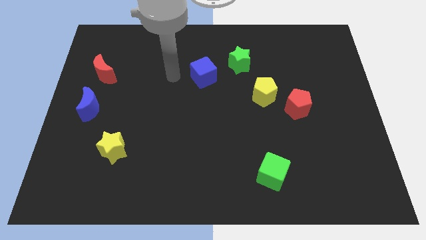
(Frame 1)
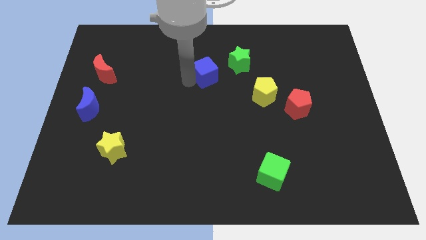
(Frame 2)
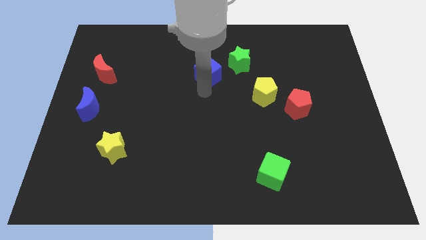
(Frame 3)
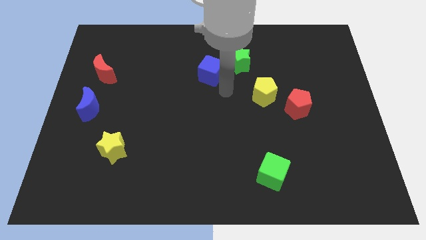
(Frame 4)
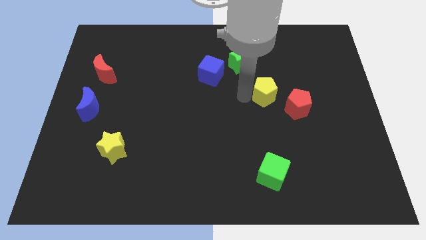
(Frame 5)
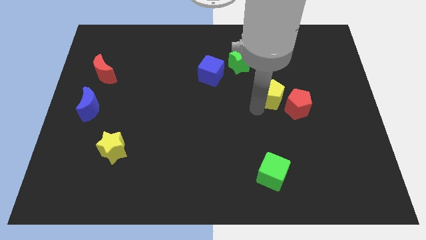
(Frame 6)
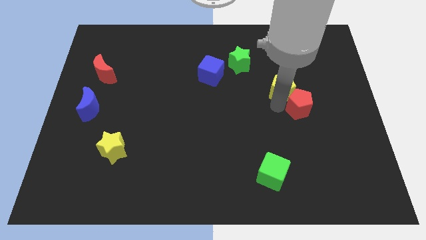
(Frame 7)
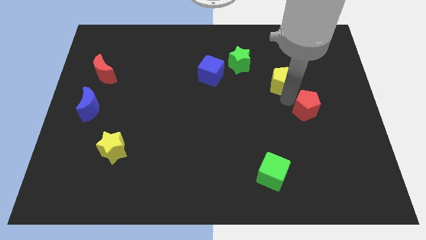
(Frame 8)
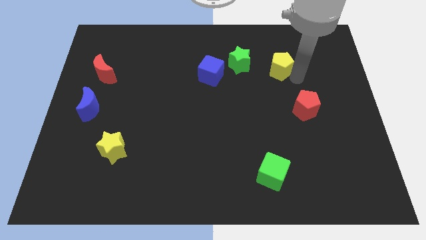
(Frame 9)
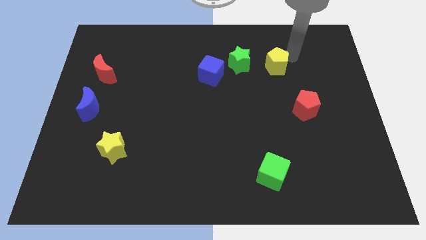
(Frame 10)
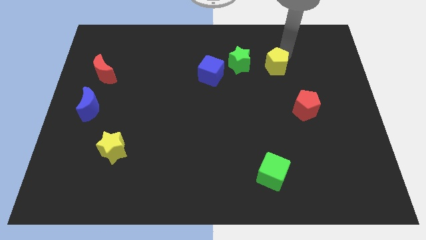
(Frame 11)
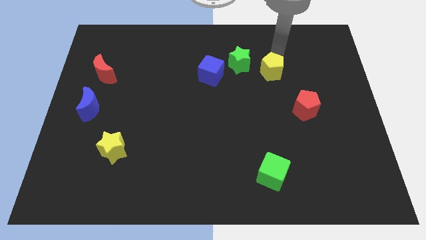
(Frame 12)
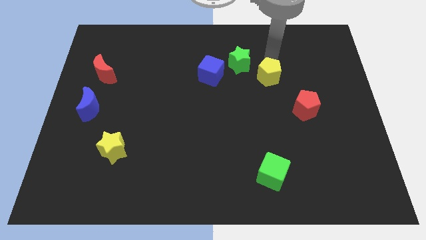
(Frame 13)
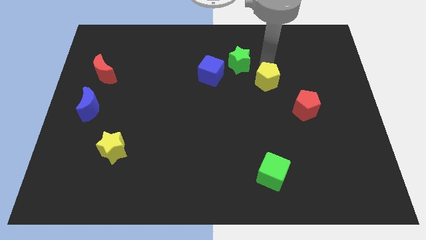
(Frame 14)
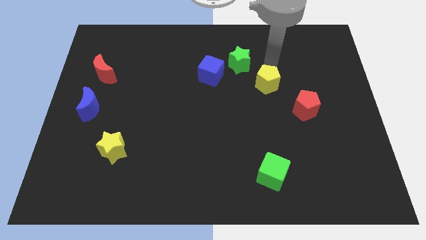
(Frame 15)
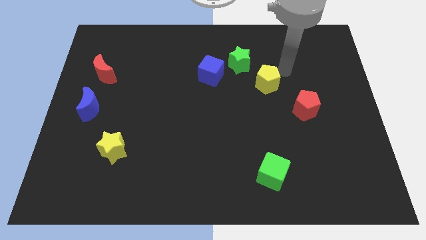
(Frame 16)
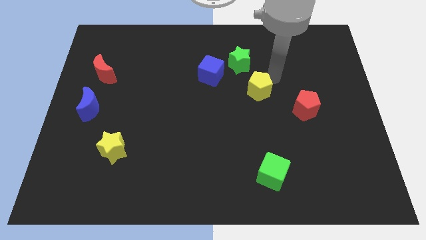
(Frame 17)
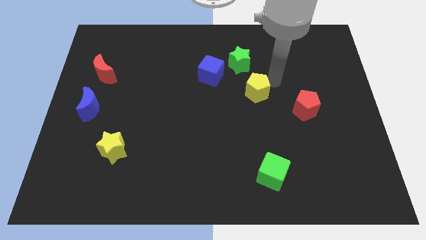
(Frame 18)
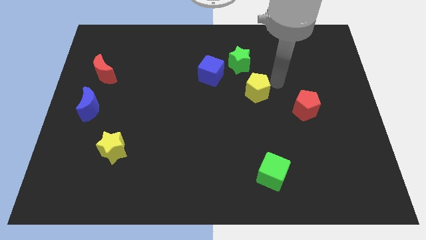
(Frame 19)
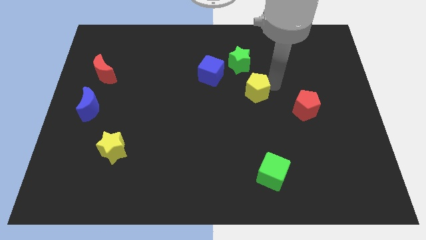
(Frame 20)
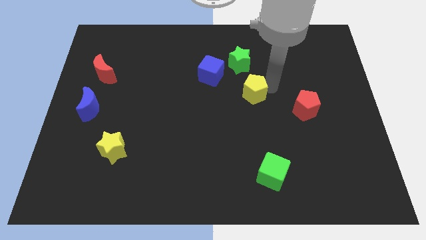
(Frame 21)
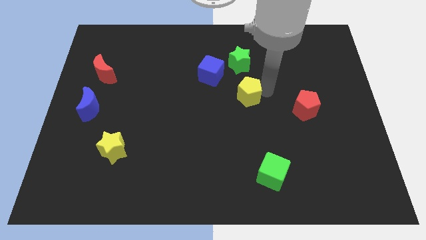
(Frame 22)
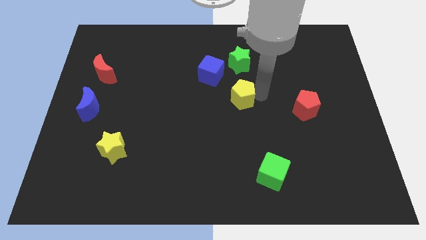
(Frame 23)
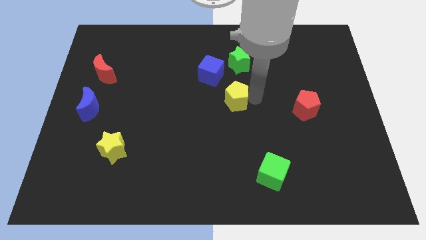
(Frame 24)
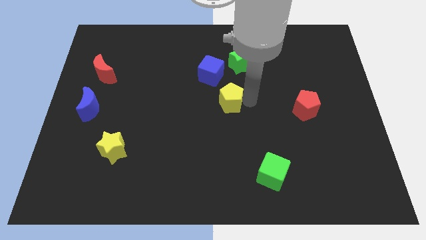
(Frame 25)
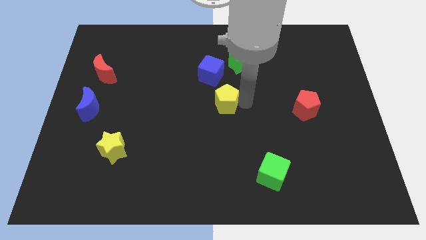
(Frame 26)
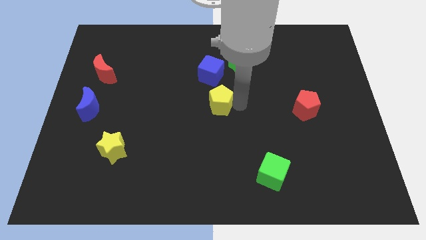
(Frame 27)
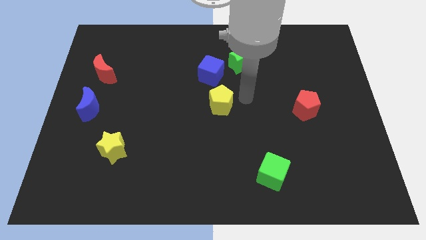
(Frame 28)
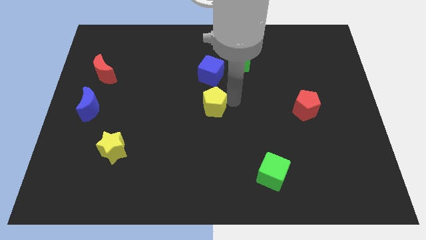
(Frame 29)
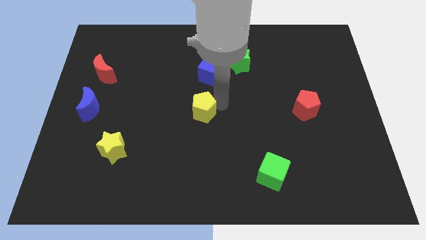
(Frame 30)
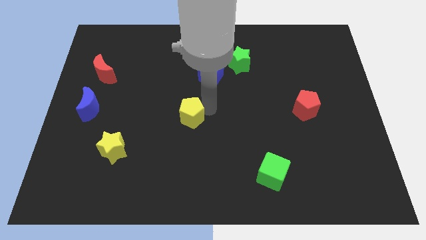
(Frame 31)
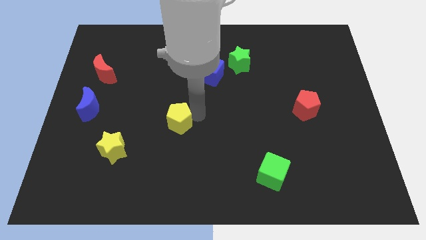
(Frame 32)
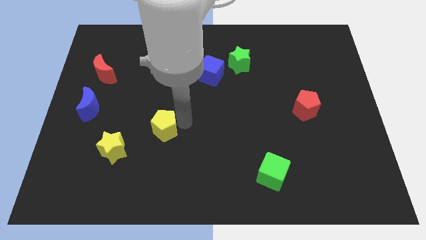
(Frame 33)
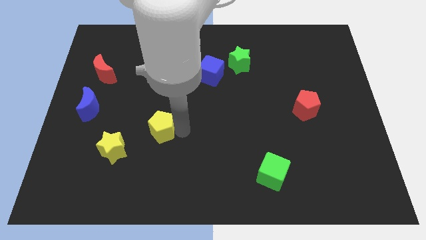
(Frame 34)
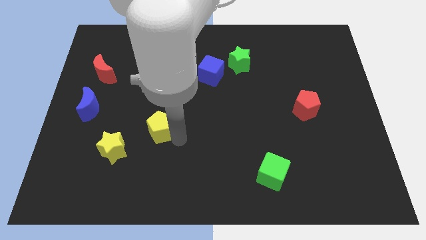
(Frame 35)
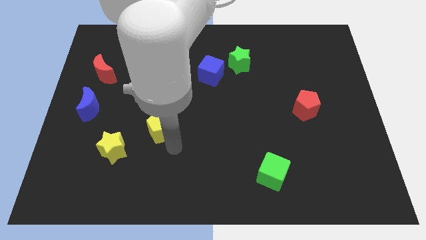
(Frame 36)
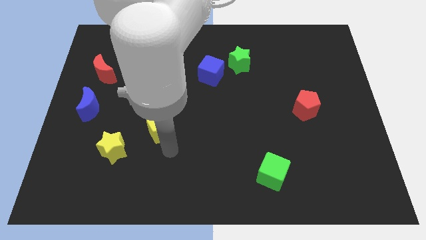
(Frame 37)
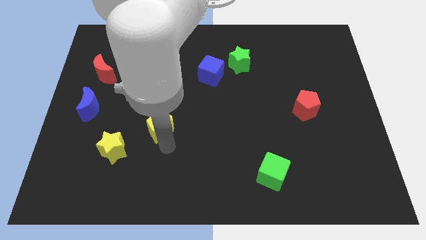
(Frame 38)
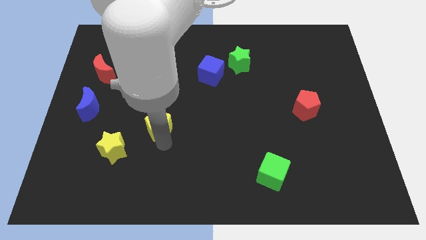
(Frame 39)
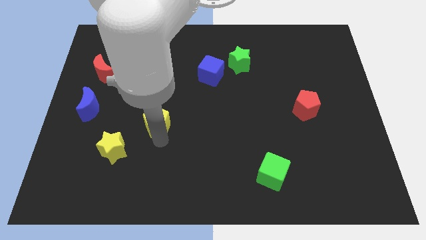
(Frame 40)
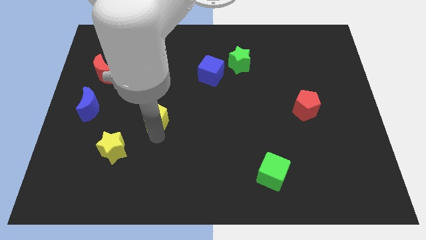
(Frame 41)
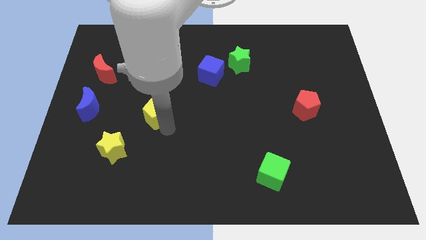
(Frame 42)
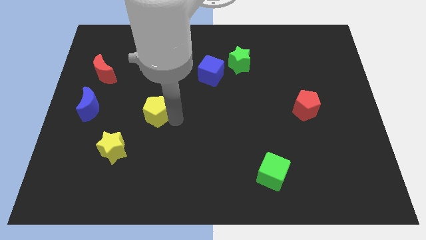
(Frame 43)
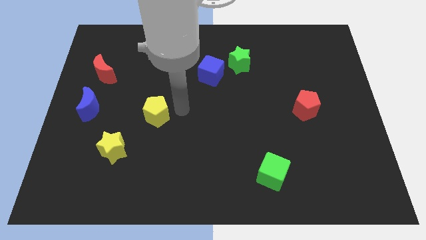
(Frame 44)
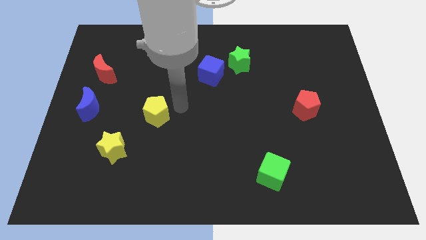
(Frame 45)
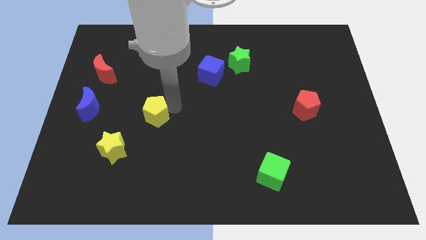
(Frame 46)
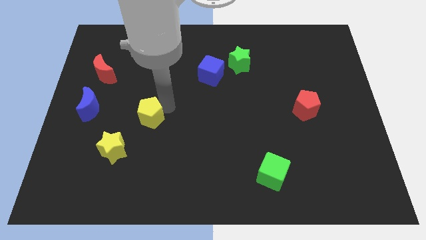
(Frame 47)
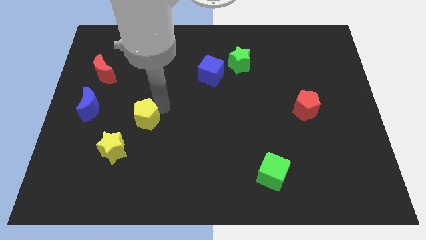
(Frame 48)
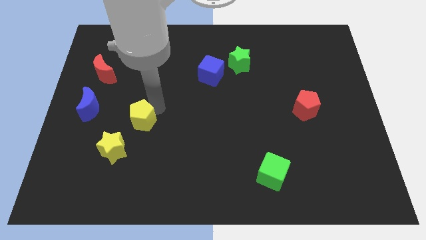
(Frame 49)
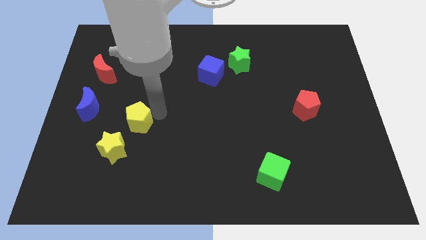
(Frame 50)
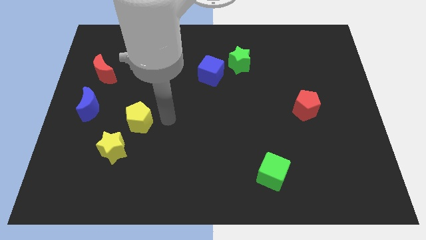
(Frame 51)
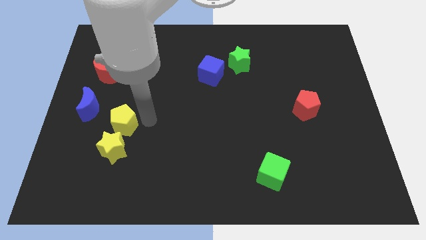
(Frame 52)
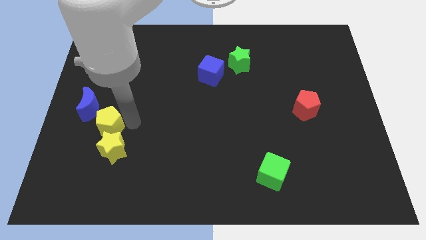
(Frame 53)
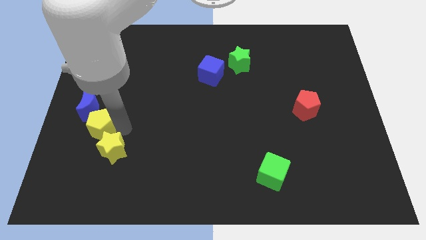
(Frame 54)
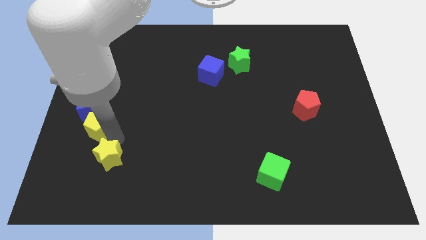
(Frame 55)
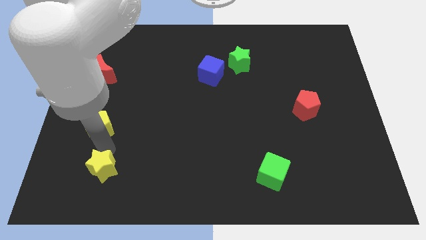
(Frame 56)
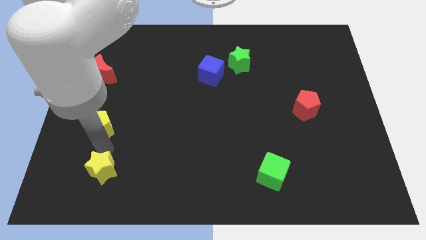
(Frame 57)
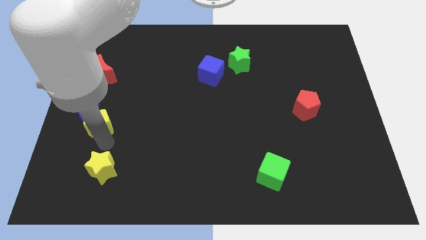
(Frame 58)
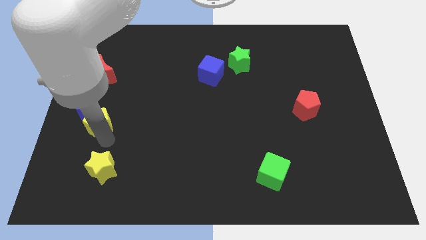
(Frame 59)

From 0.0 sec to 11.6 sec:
push the yellow pentagon to the bottom side of the red moon

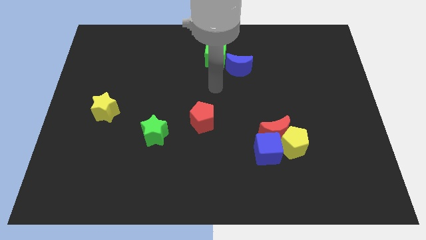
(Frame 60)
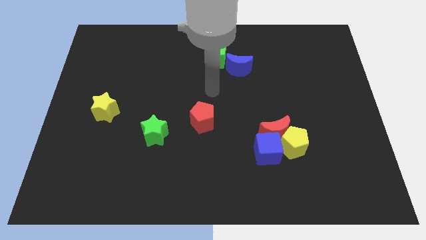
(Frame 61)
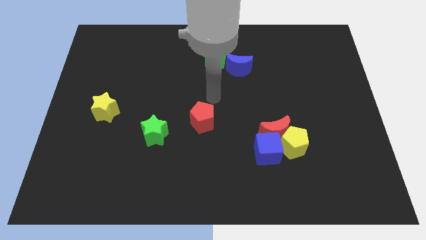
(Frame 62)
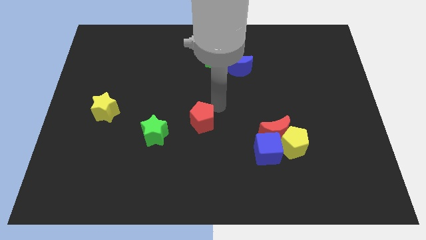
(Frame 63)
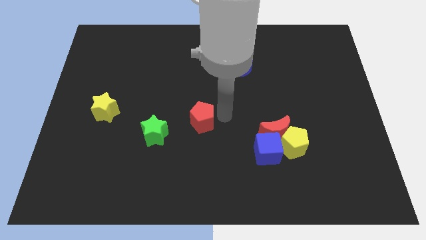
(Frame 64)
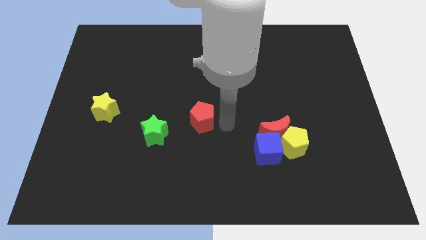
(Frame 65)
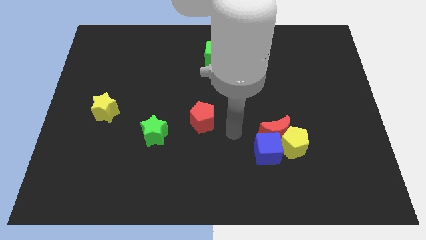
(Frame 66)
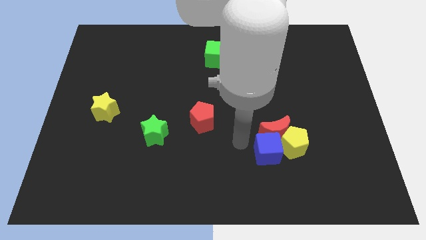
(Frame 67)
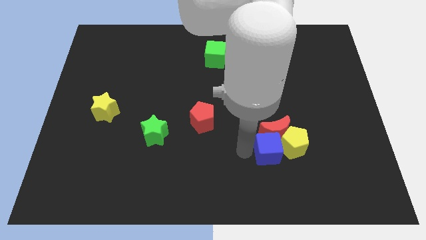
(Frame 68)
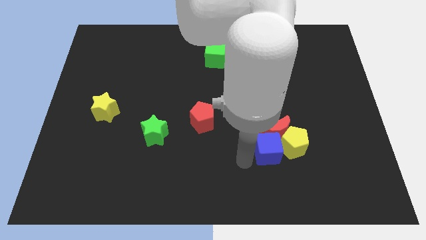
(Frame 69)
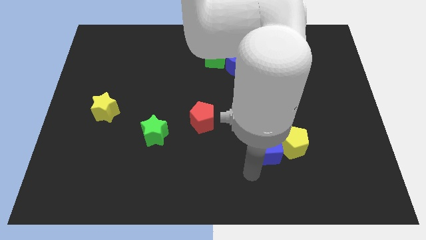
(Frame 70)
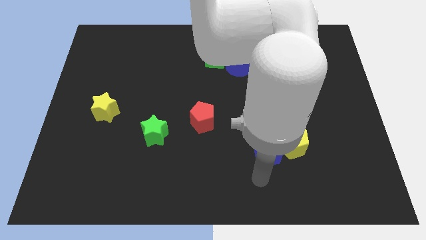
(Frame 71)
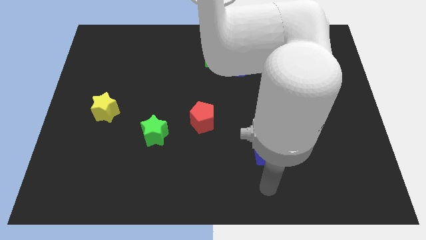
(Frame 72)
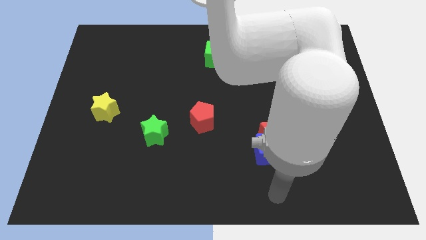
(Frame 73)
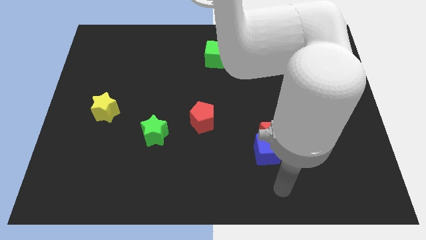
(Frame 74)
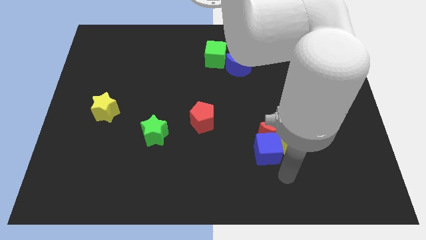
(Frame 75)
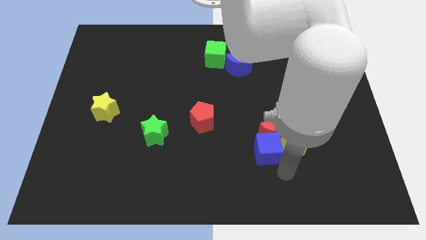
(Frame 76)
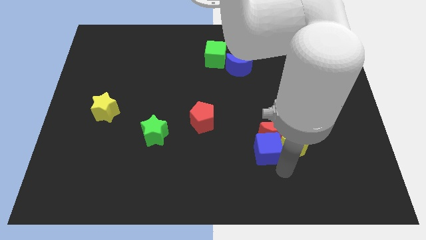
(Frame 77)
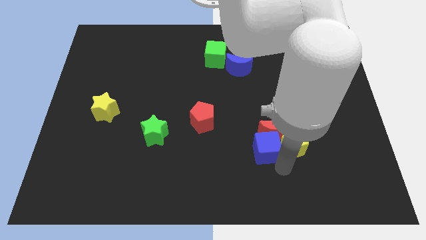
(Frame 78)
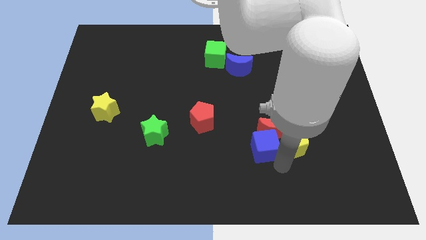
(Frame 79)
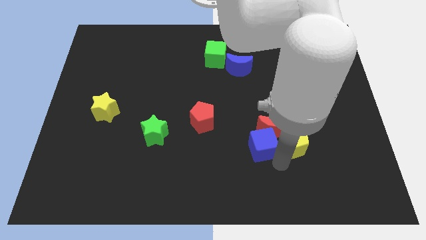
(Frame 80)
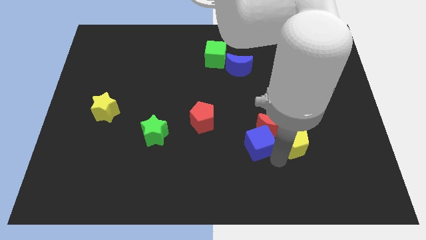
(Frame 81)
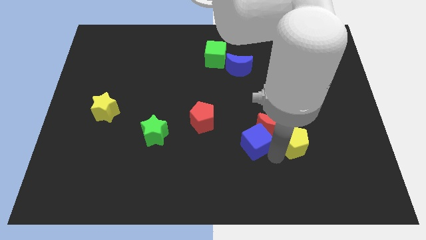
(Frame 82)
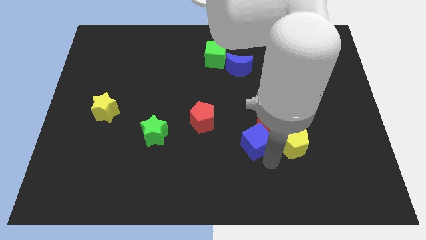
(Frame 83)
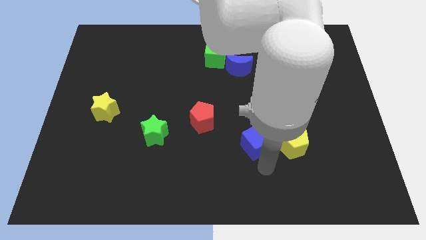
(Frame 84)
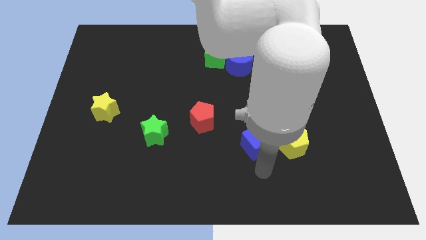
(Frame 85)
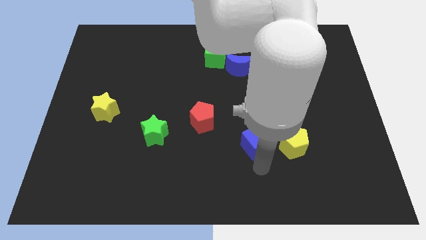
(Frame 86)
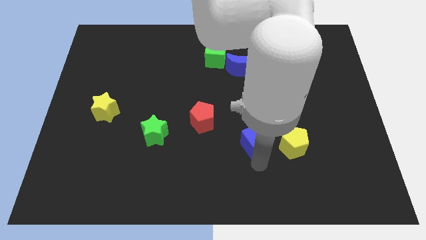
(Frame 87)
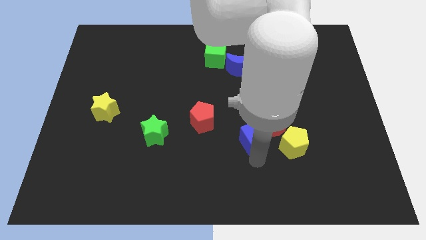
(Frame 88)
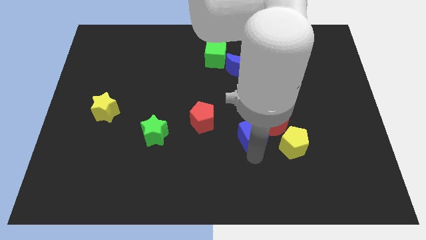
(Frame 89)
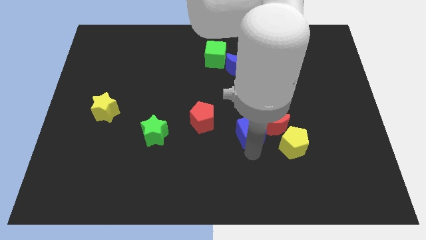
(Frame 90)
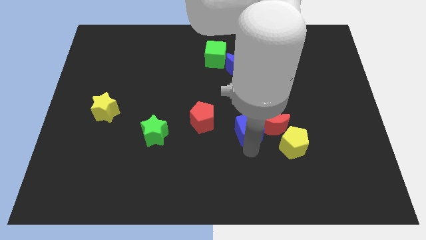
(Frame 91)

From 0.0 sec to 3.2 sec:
put the blue cube to the top left of the red moon
